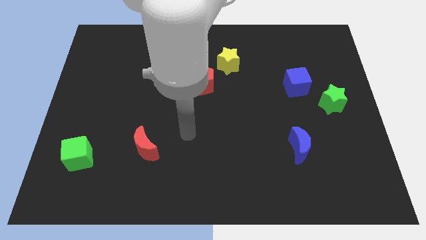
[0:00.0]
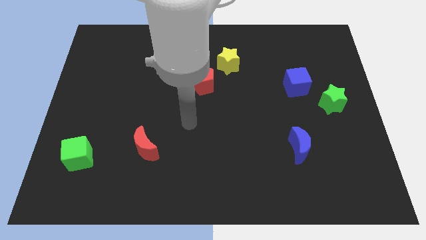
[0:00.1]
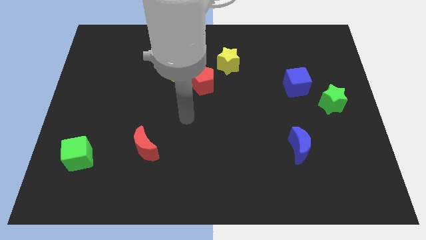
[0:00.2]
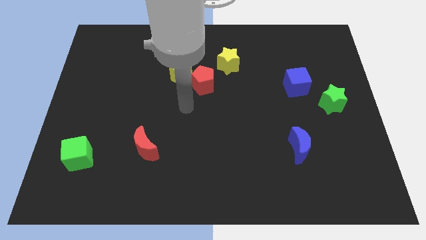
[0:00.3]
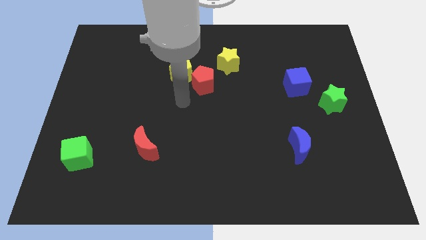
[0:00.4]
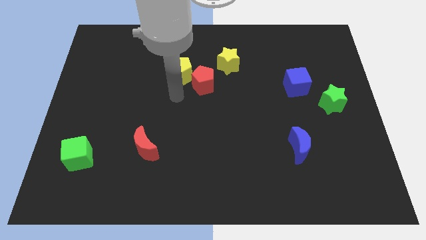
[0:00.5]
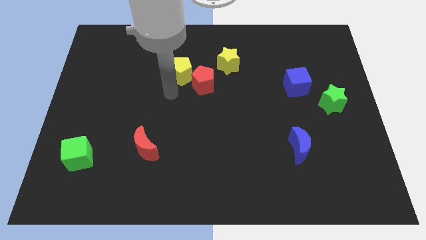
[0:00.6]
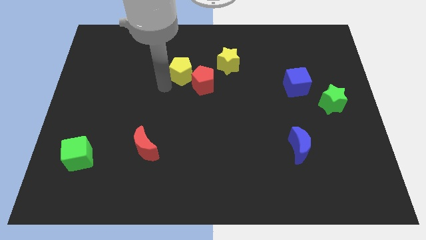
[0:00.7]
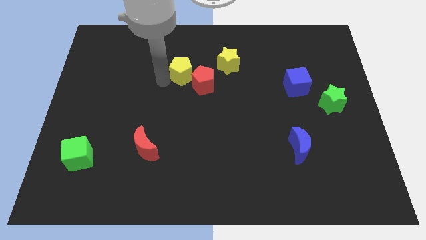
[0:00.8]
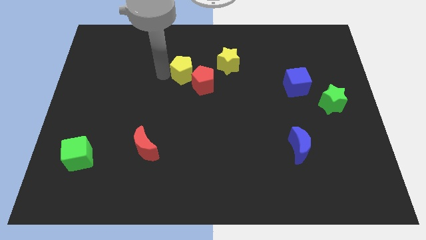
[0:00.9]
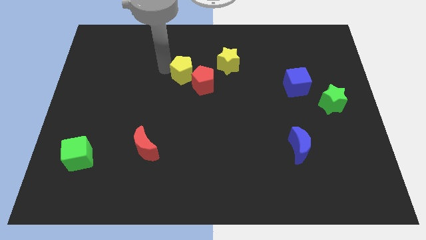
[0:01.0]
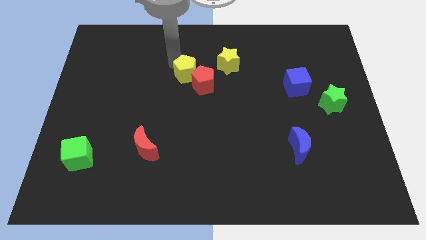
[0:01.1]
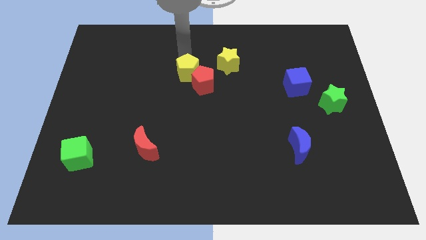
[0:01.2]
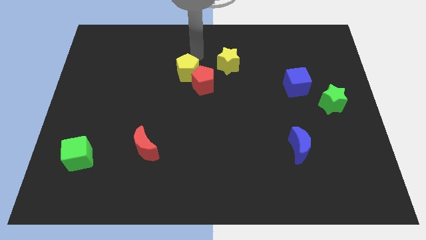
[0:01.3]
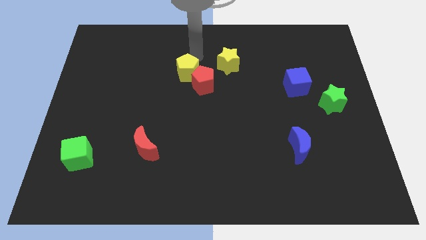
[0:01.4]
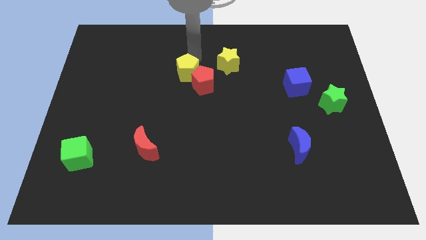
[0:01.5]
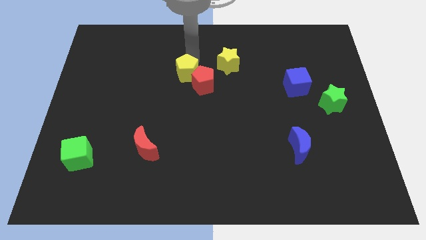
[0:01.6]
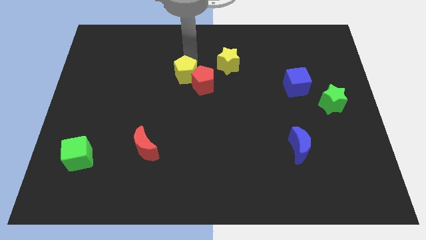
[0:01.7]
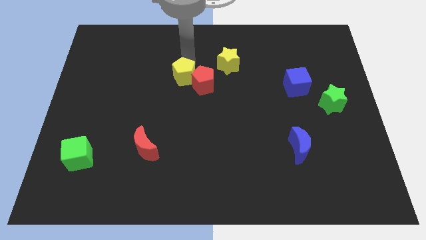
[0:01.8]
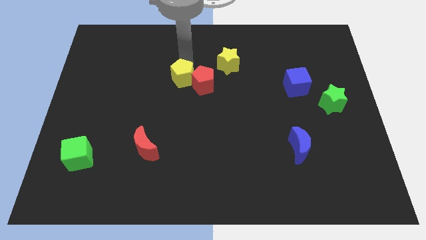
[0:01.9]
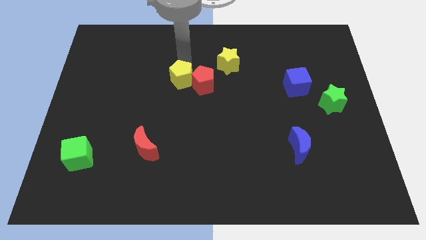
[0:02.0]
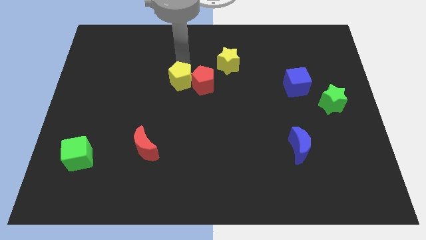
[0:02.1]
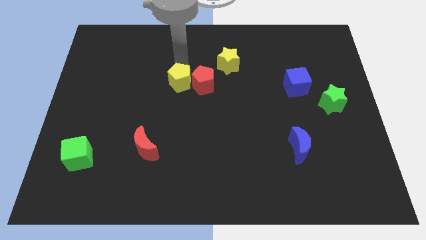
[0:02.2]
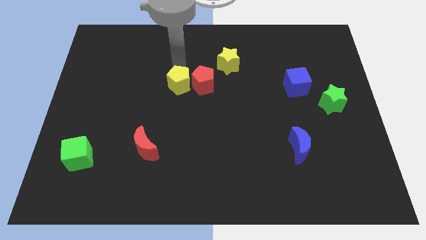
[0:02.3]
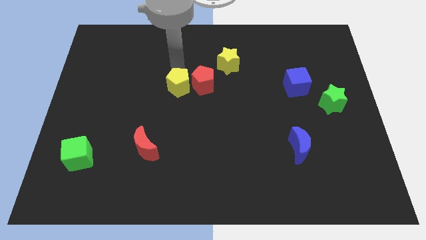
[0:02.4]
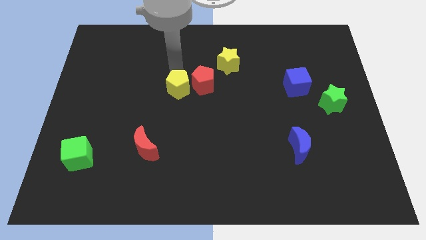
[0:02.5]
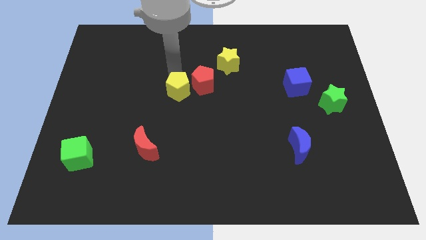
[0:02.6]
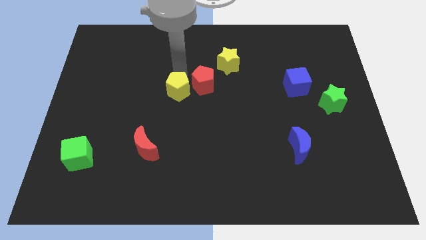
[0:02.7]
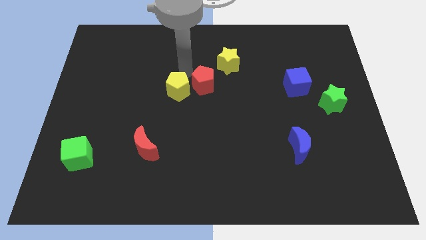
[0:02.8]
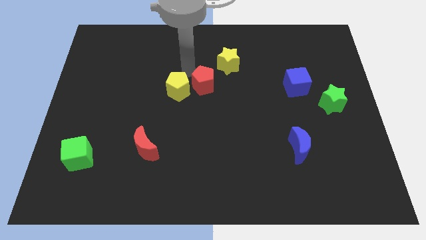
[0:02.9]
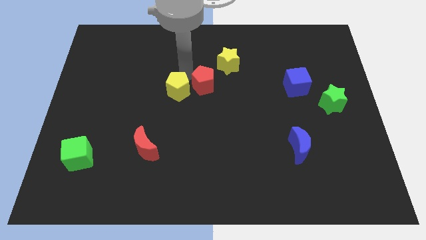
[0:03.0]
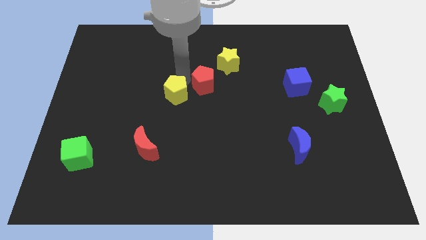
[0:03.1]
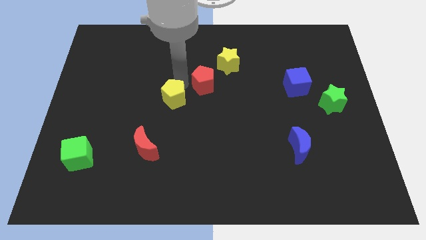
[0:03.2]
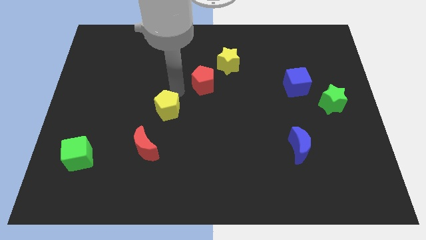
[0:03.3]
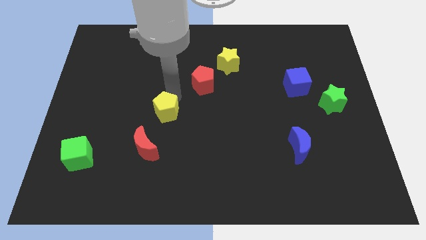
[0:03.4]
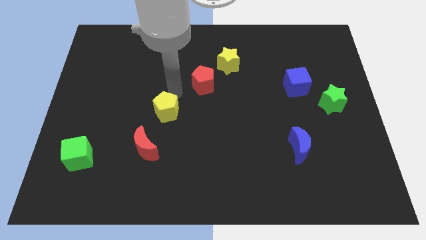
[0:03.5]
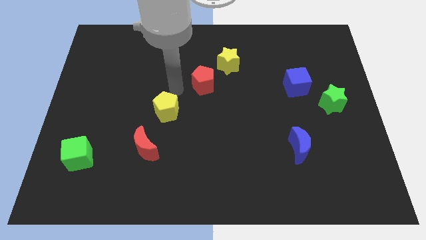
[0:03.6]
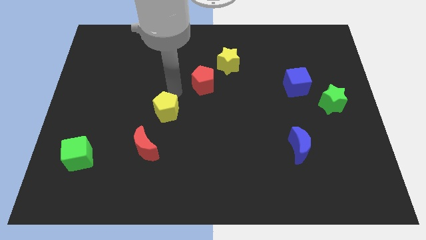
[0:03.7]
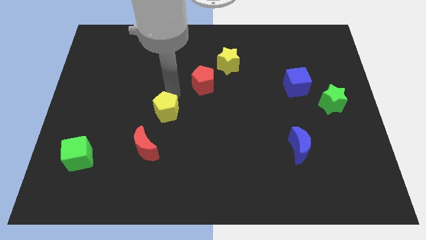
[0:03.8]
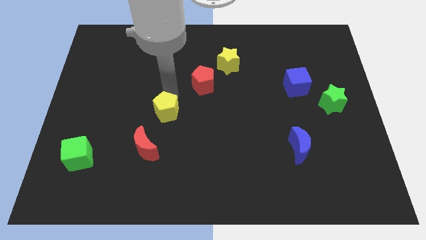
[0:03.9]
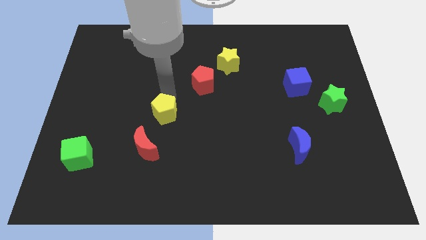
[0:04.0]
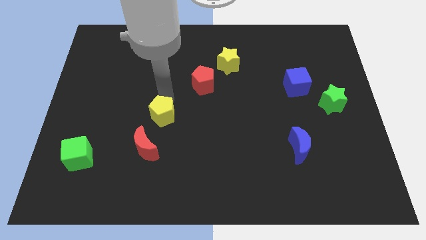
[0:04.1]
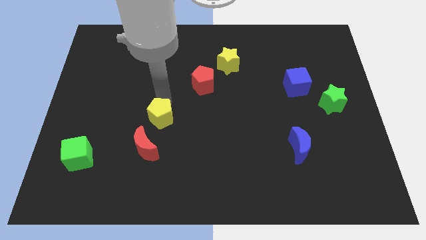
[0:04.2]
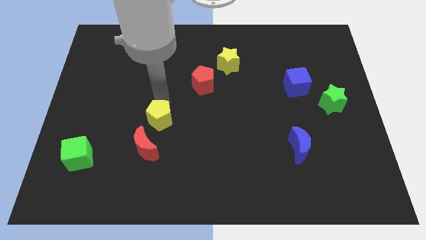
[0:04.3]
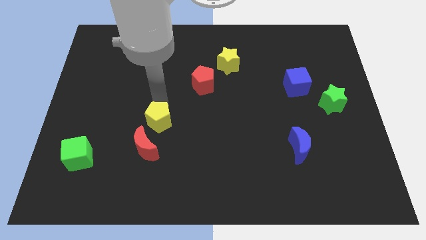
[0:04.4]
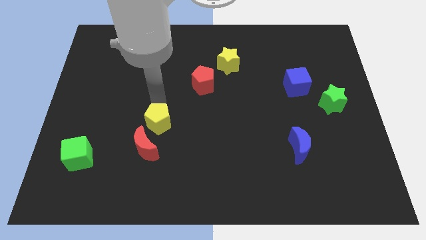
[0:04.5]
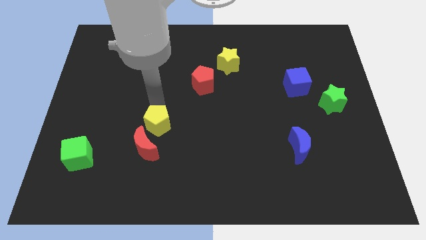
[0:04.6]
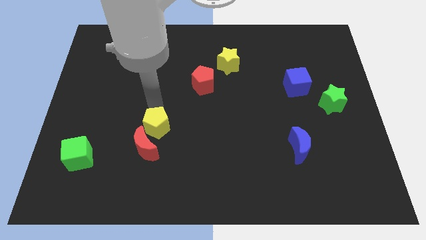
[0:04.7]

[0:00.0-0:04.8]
put the yellow pentagon to the red moon

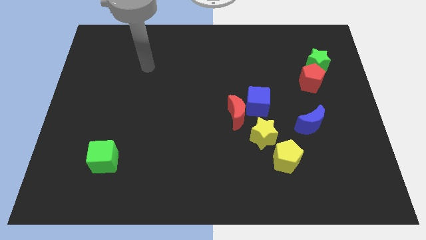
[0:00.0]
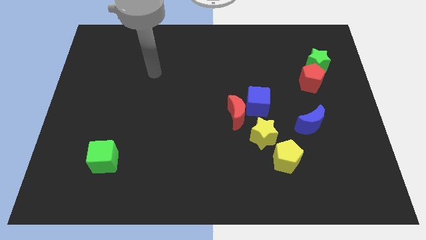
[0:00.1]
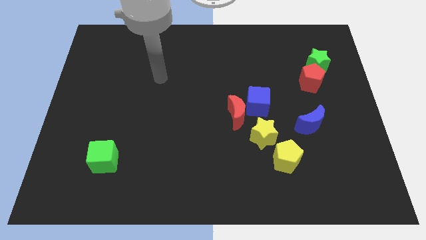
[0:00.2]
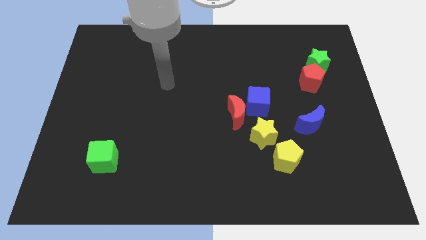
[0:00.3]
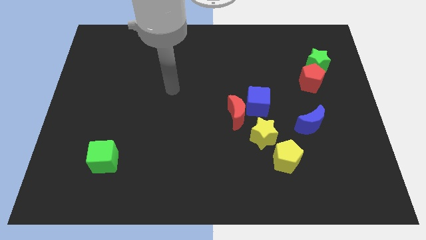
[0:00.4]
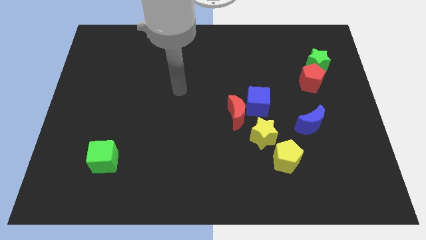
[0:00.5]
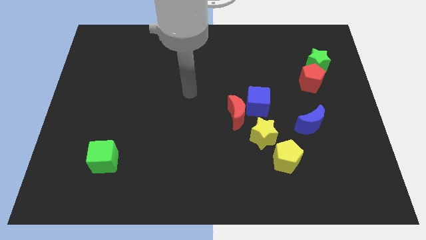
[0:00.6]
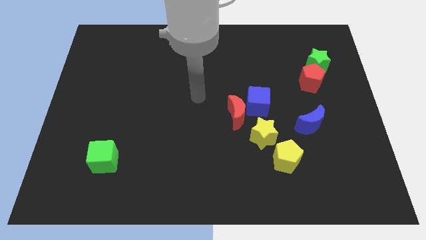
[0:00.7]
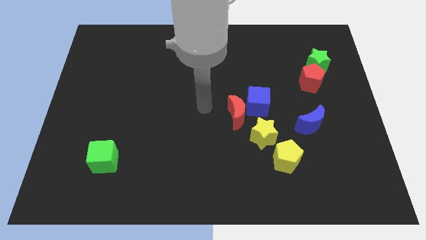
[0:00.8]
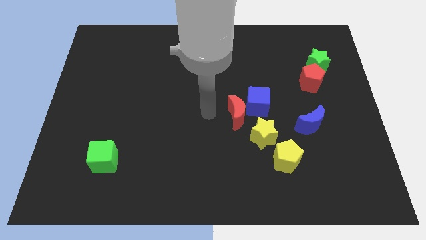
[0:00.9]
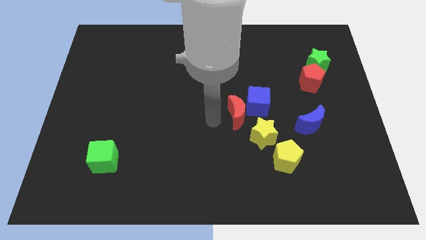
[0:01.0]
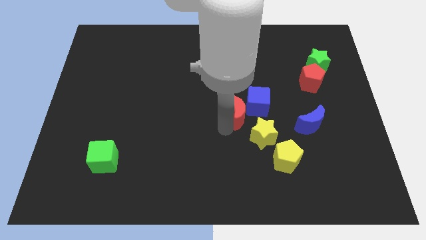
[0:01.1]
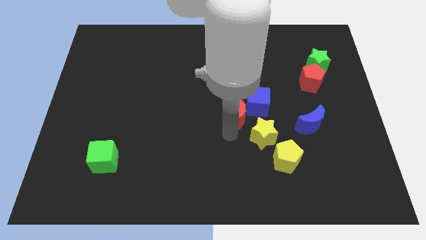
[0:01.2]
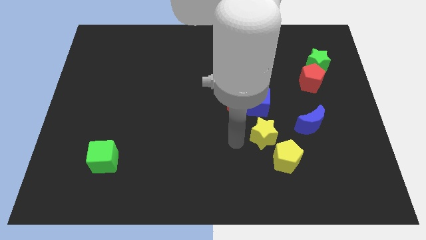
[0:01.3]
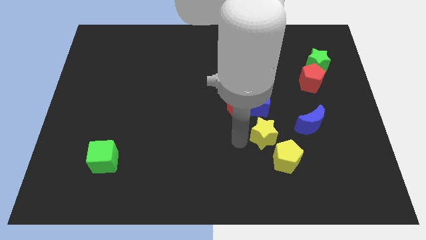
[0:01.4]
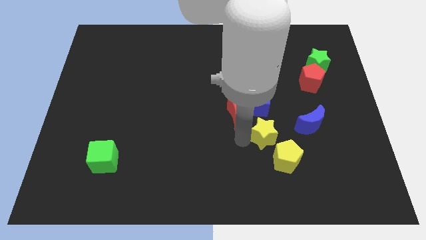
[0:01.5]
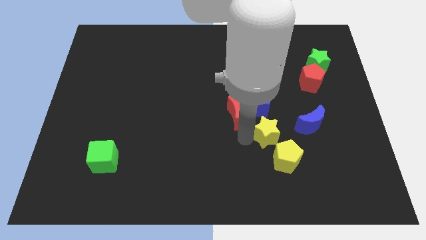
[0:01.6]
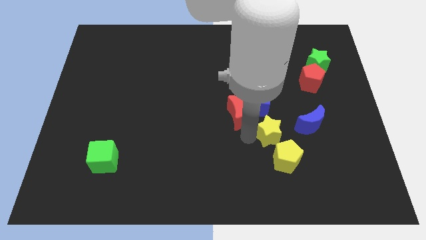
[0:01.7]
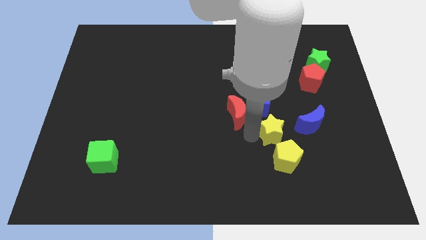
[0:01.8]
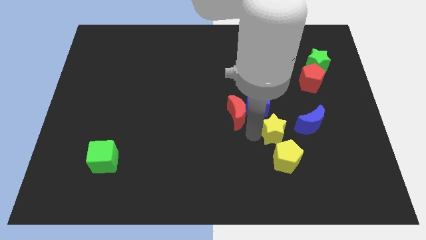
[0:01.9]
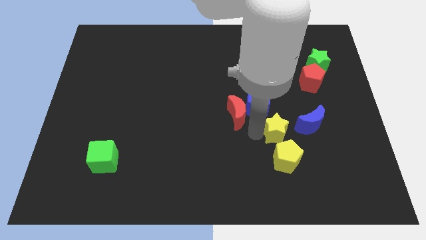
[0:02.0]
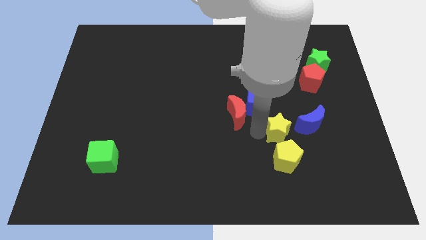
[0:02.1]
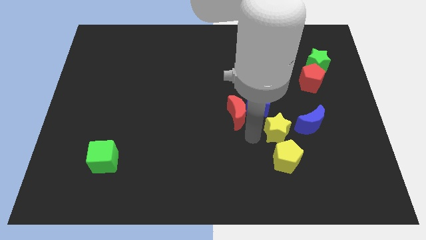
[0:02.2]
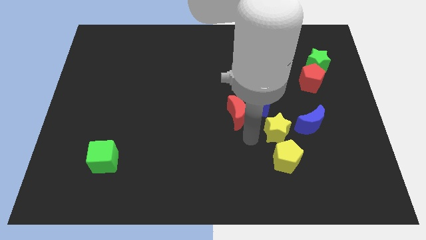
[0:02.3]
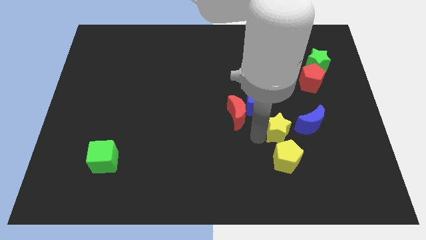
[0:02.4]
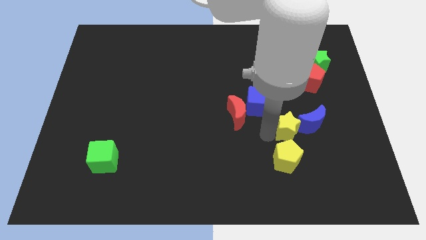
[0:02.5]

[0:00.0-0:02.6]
put the yellow star towards the blue moon
